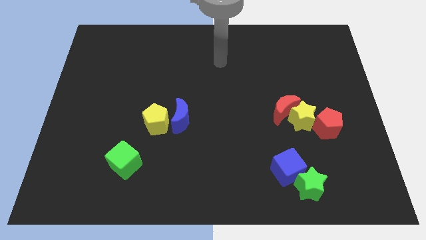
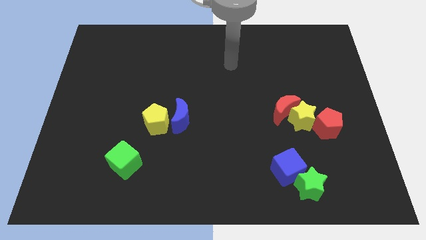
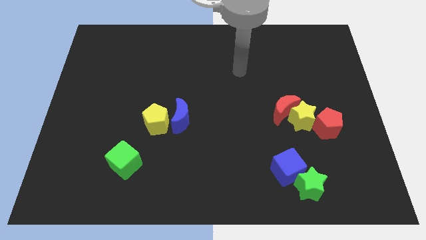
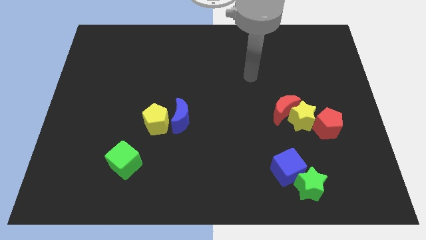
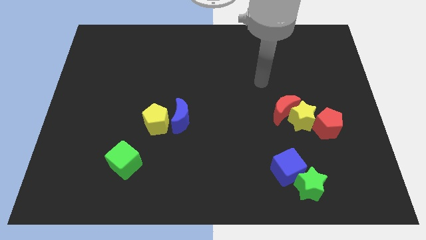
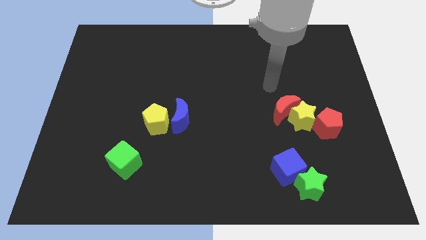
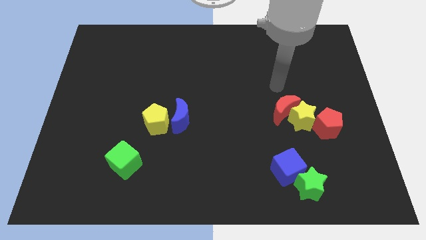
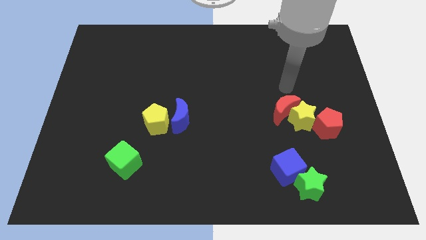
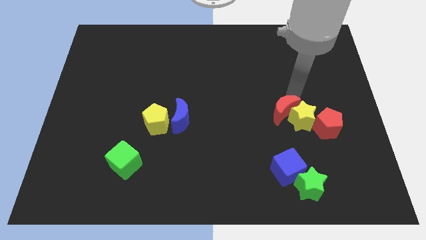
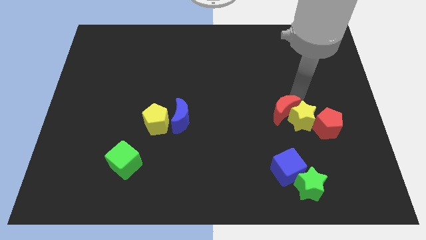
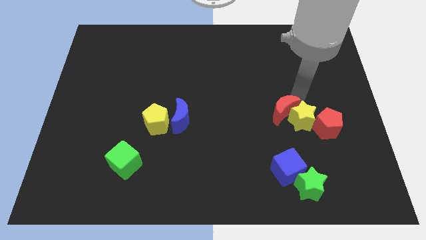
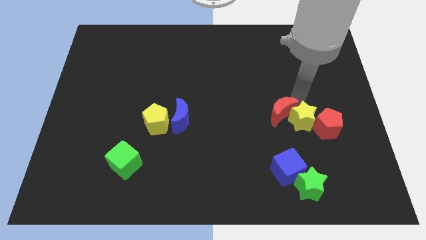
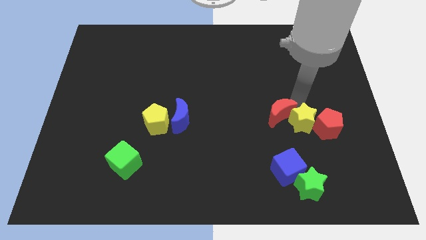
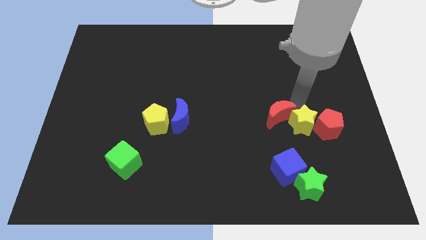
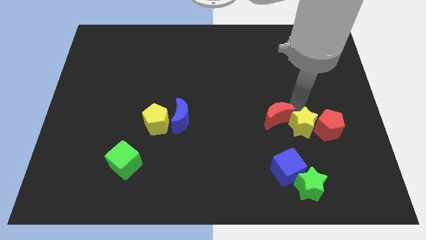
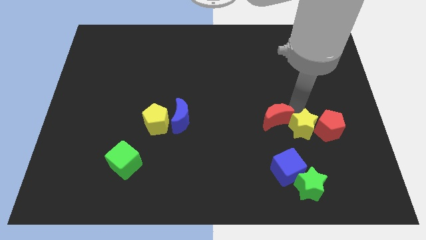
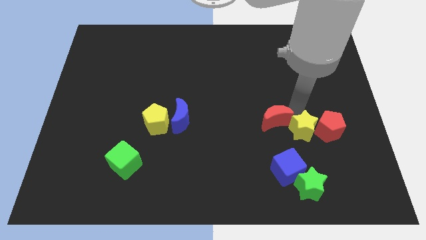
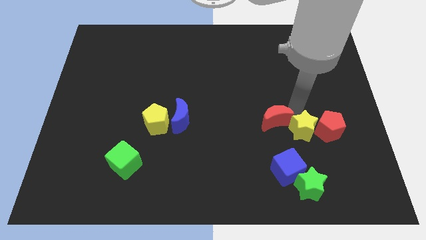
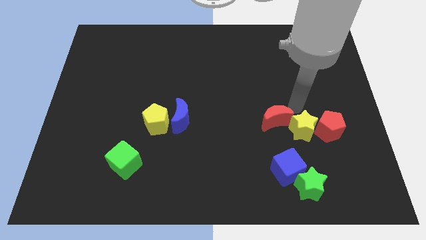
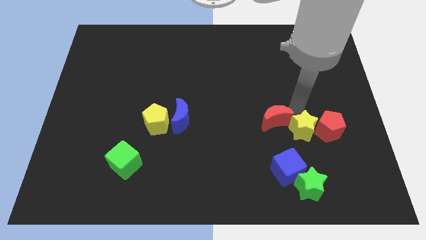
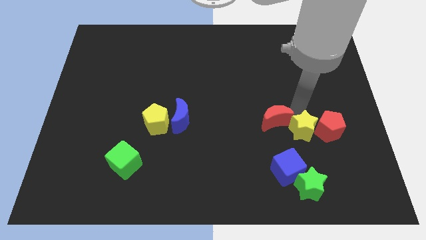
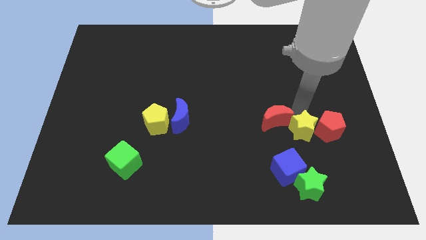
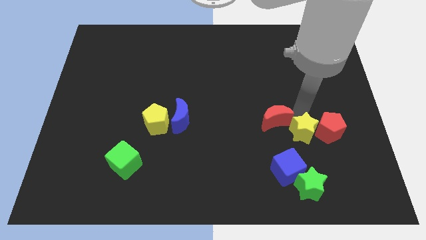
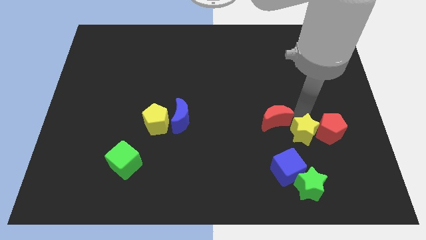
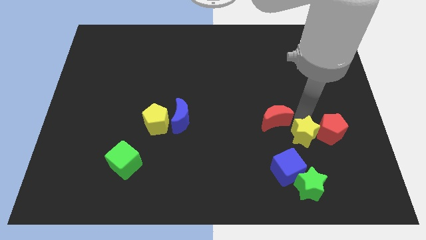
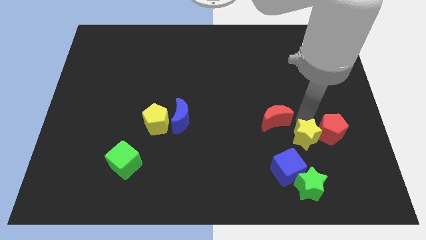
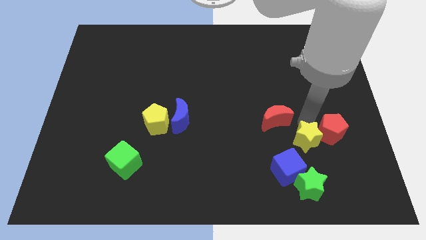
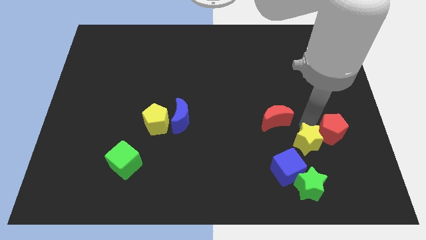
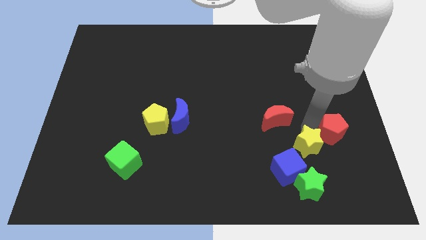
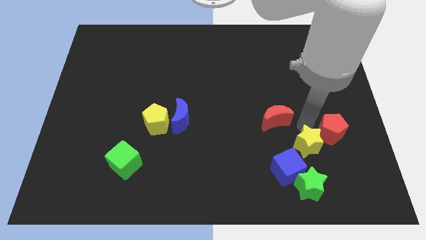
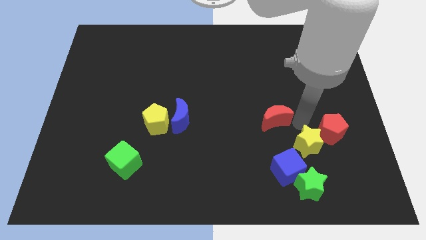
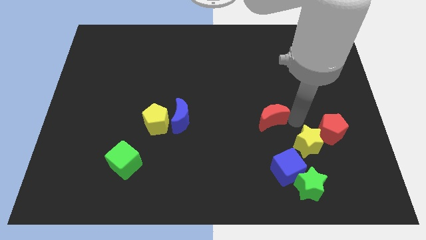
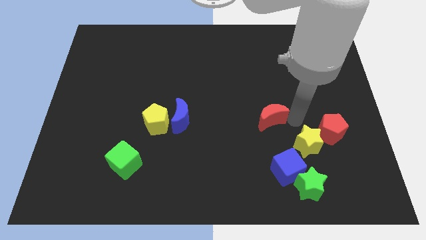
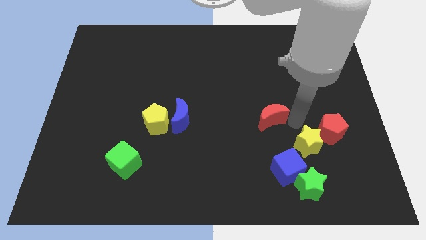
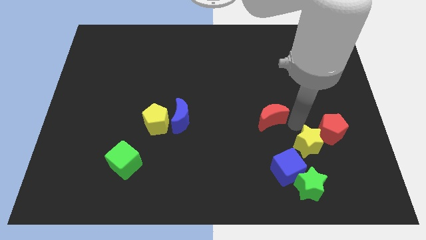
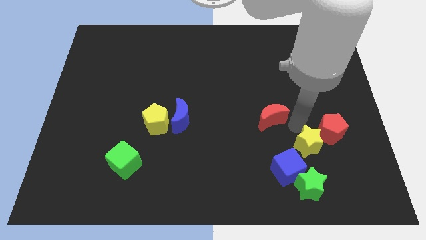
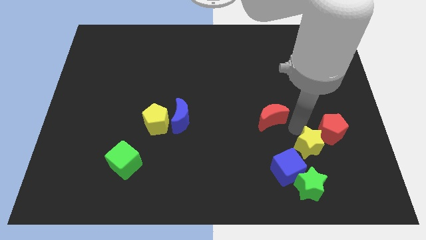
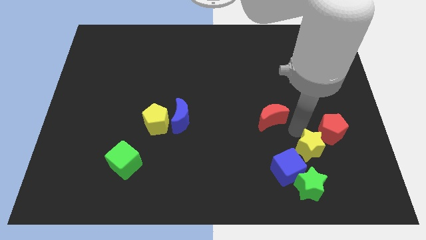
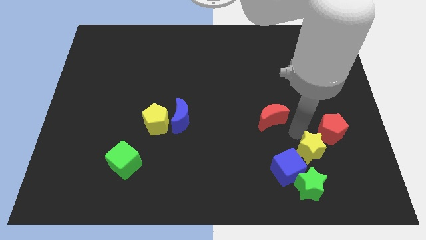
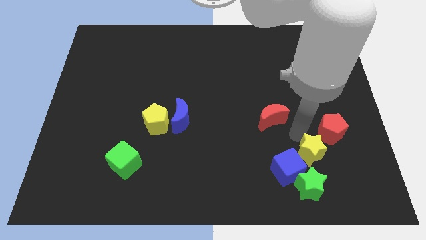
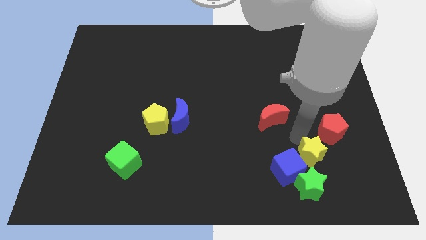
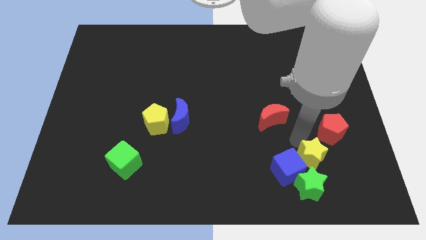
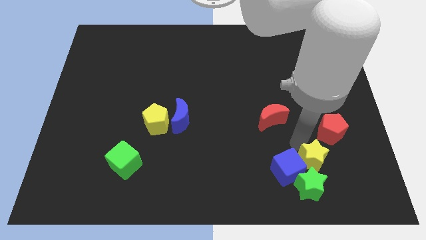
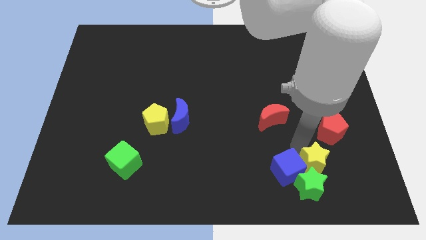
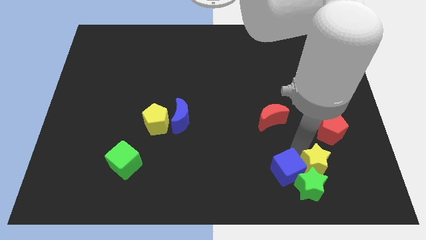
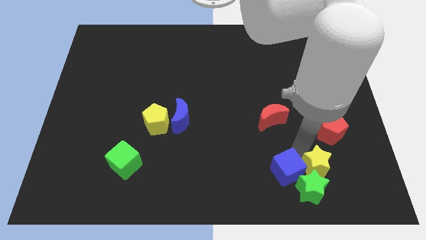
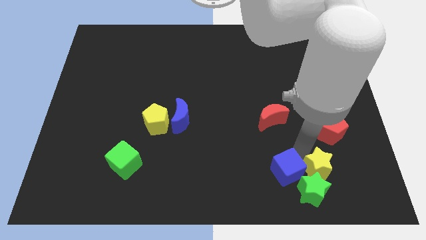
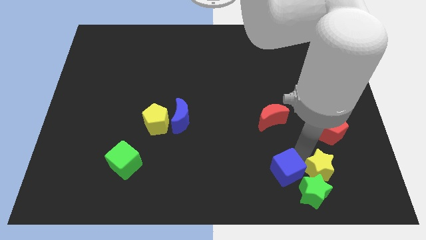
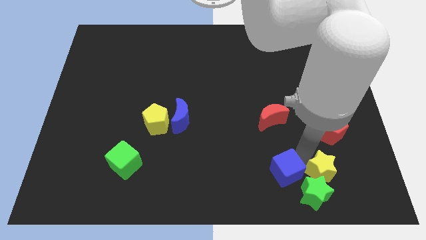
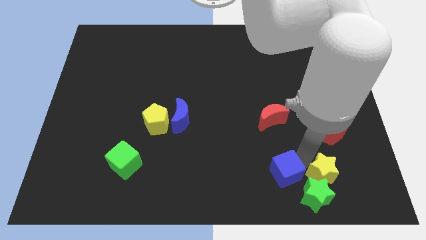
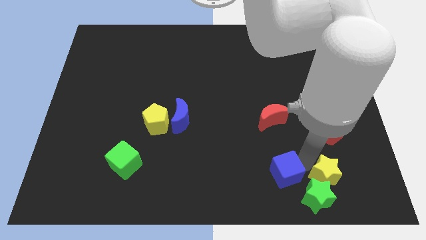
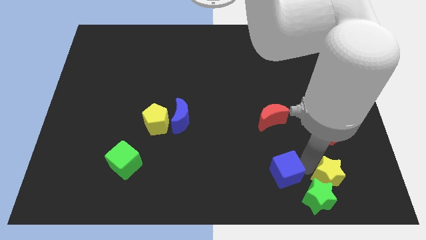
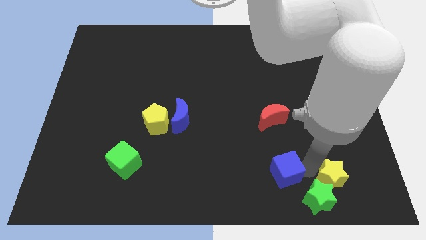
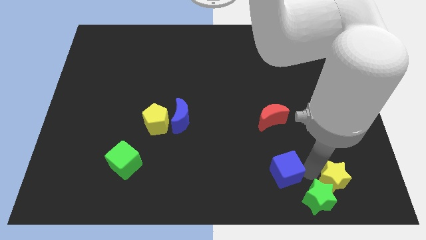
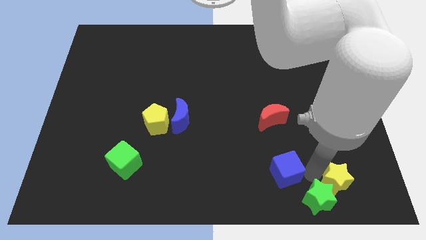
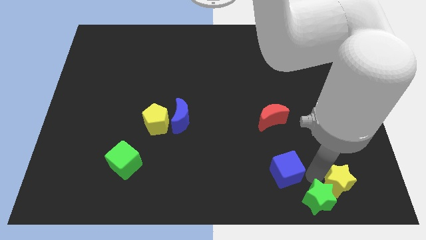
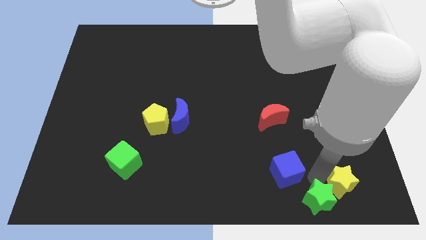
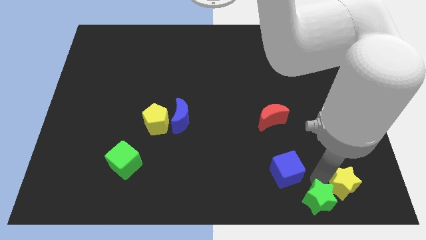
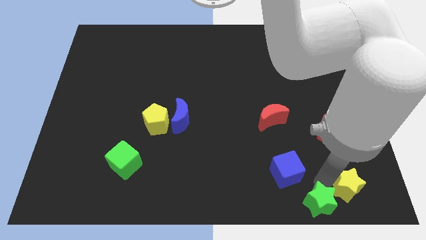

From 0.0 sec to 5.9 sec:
push the yellow star to the bottom right of the board

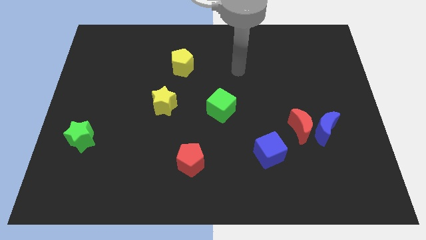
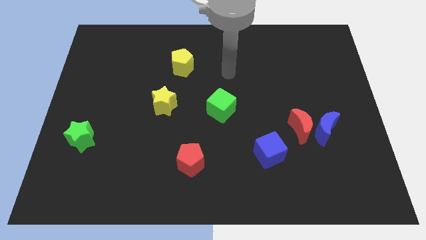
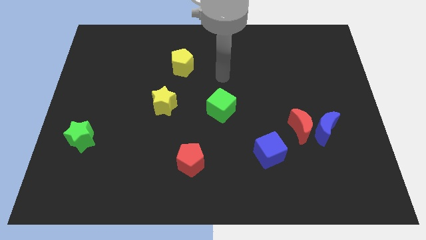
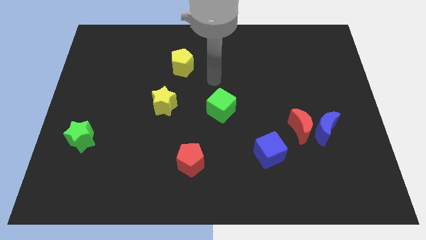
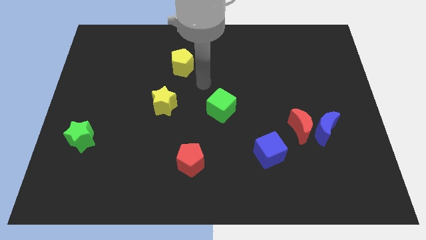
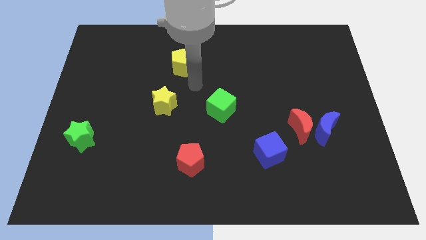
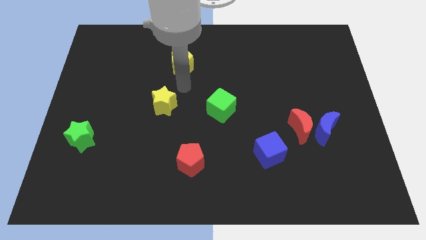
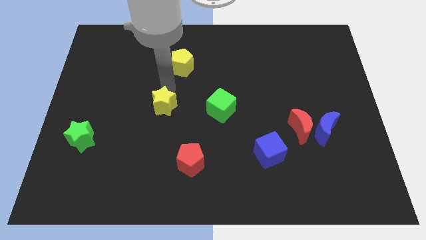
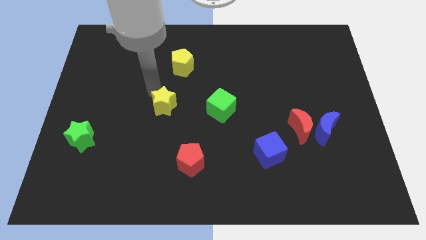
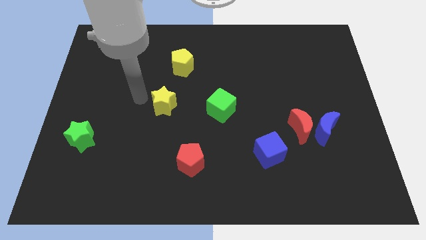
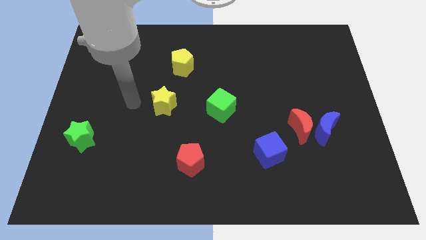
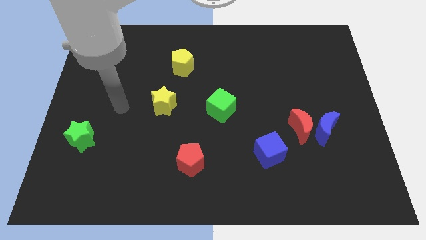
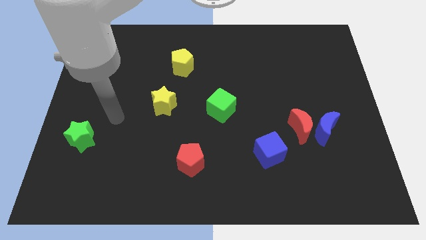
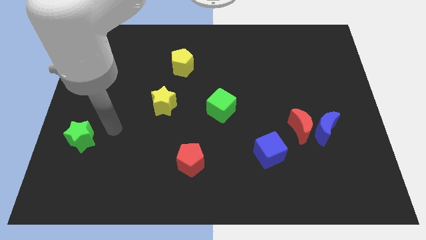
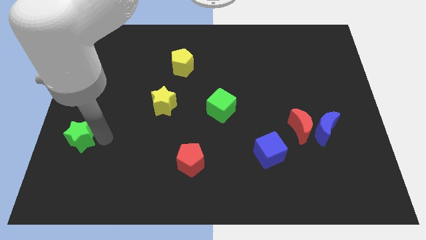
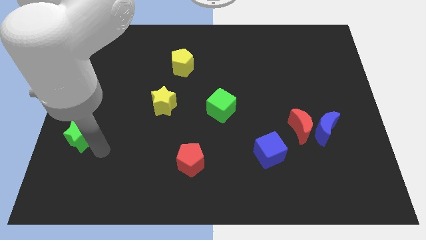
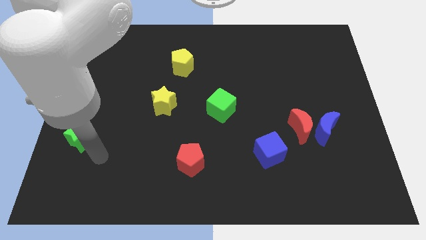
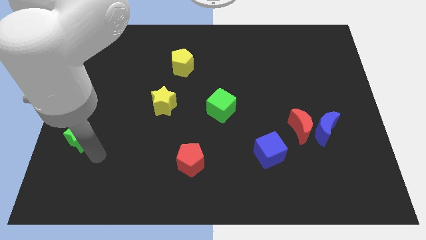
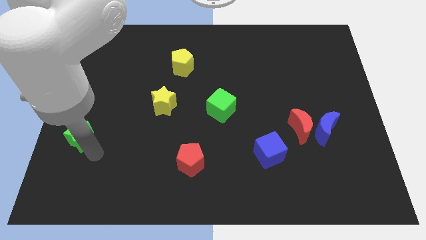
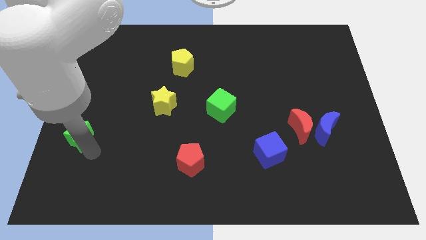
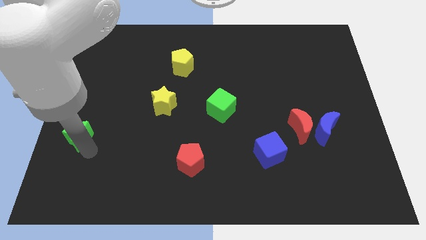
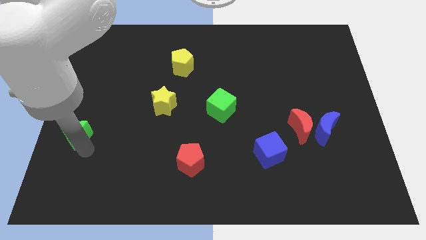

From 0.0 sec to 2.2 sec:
slide the green star to the center left
